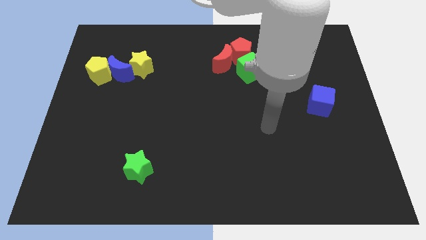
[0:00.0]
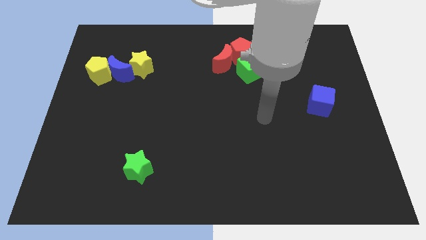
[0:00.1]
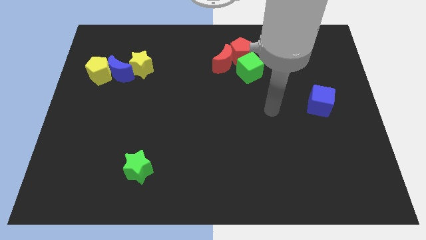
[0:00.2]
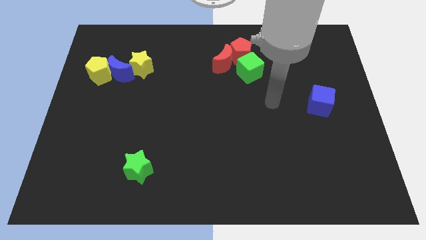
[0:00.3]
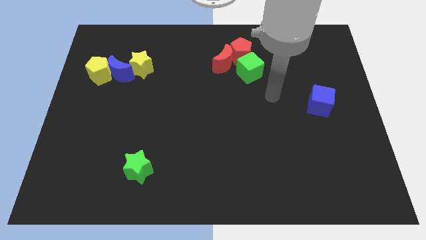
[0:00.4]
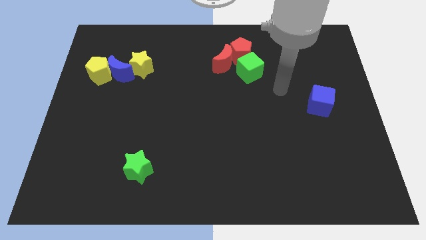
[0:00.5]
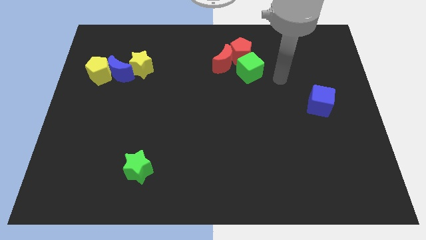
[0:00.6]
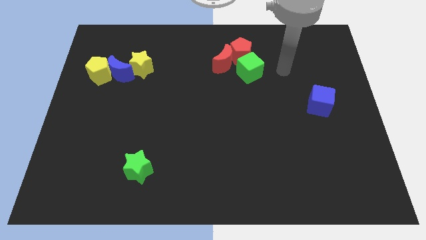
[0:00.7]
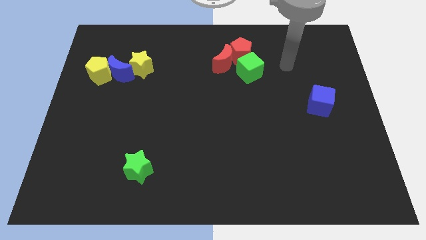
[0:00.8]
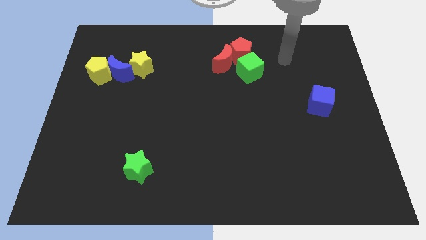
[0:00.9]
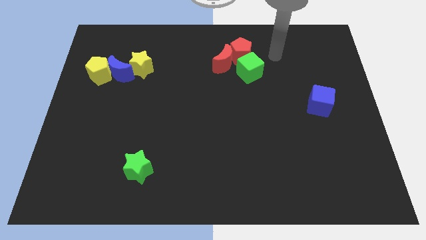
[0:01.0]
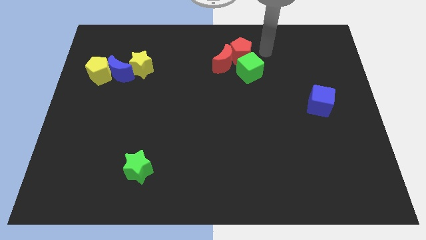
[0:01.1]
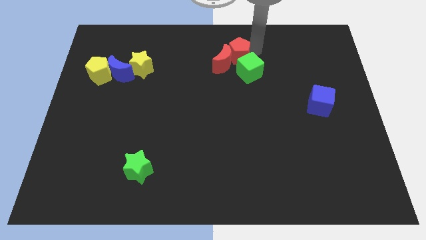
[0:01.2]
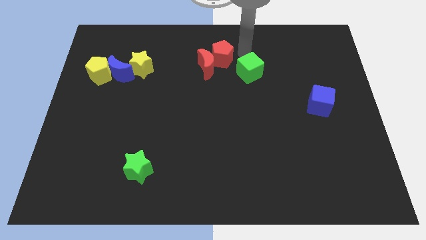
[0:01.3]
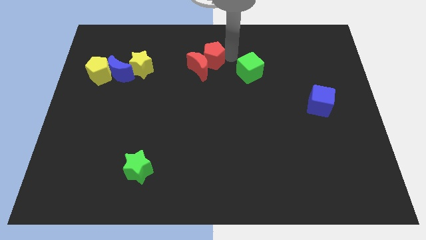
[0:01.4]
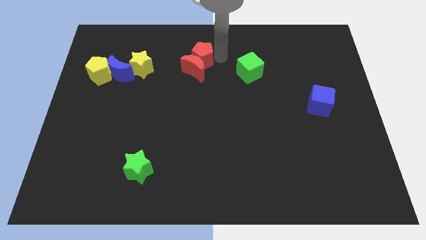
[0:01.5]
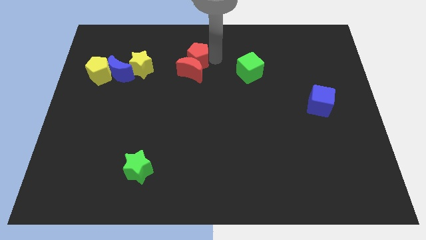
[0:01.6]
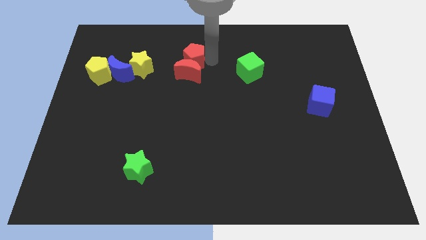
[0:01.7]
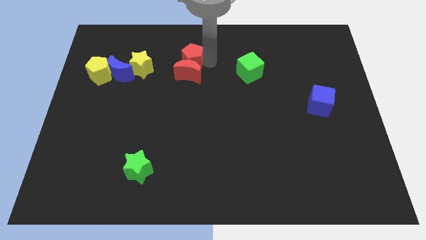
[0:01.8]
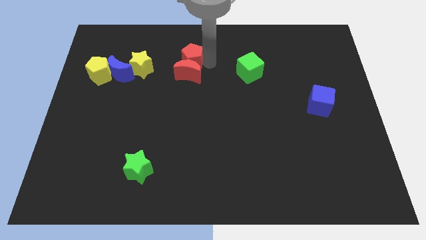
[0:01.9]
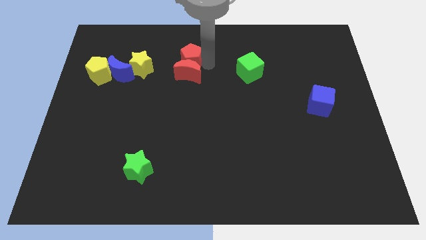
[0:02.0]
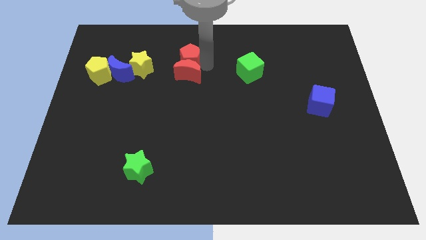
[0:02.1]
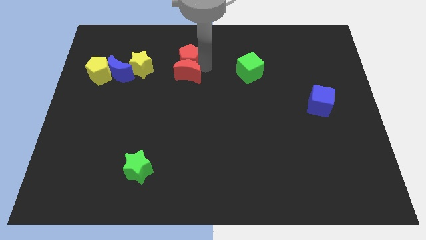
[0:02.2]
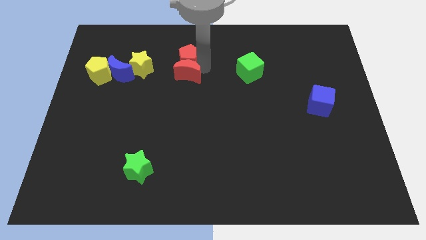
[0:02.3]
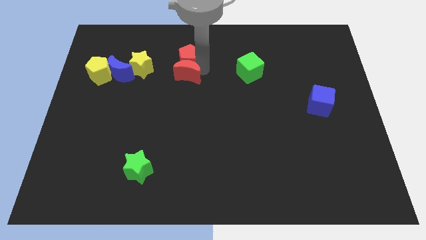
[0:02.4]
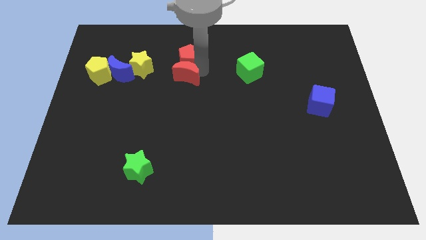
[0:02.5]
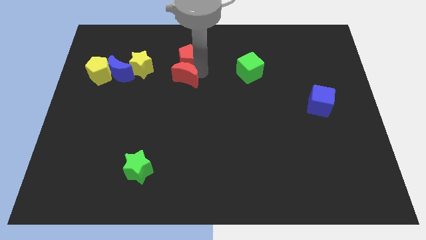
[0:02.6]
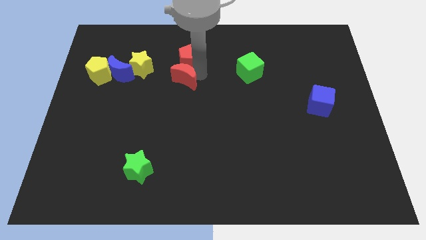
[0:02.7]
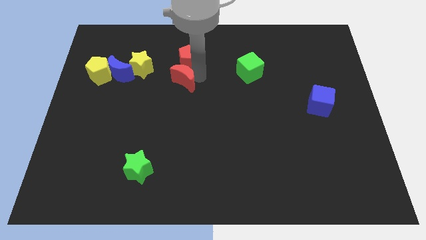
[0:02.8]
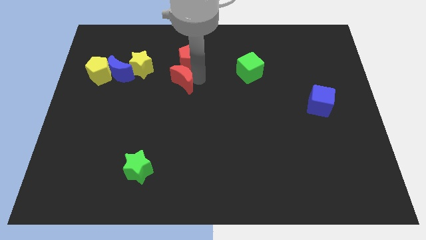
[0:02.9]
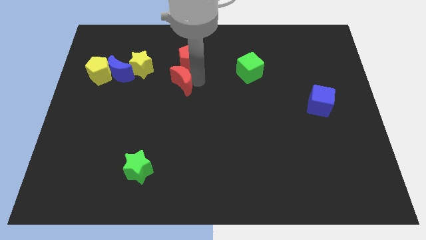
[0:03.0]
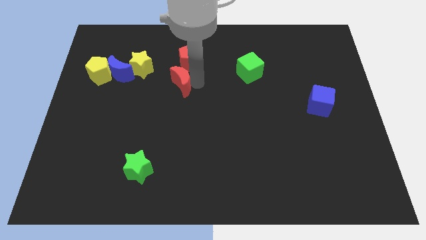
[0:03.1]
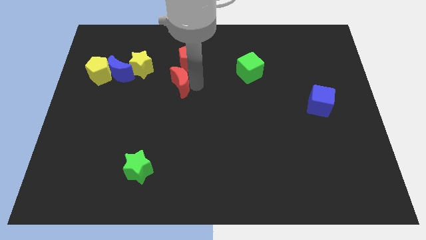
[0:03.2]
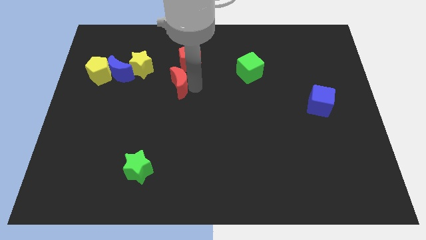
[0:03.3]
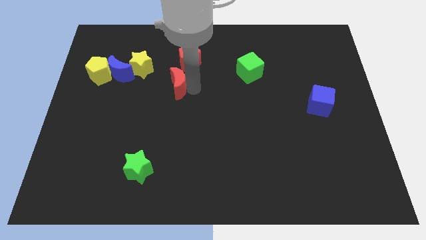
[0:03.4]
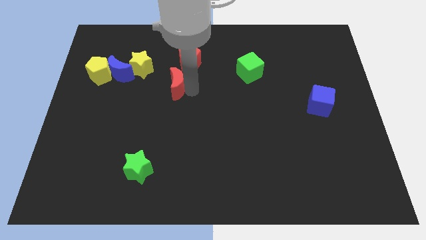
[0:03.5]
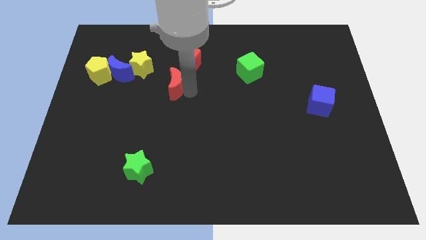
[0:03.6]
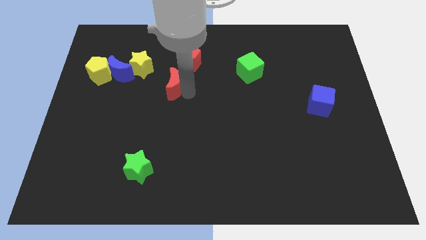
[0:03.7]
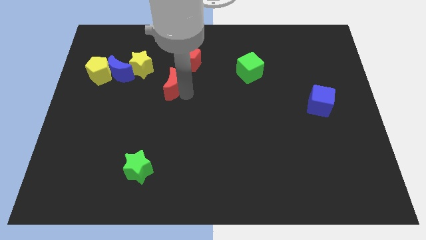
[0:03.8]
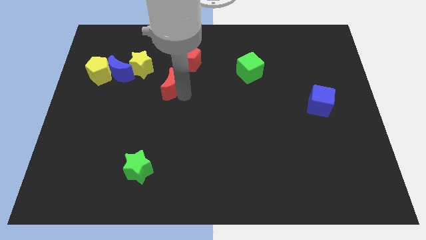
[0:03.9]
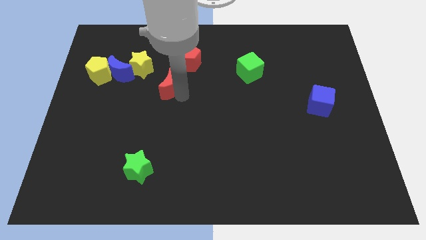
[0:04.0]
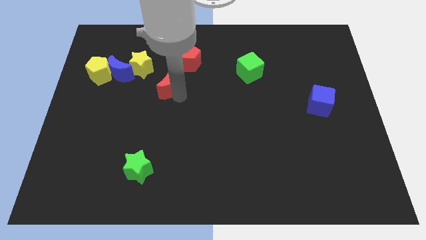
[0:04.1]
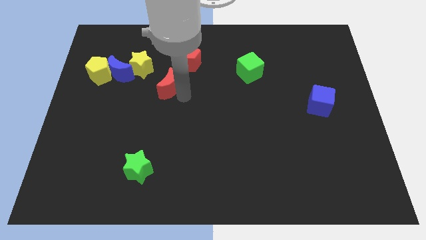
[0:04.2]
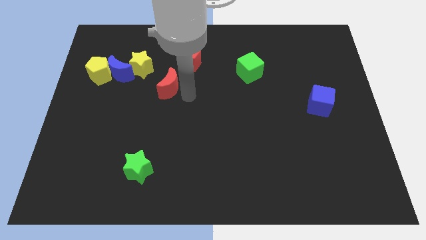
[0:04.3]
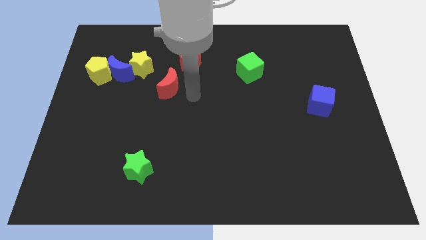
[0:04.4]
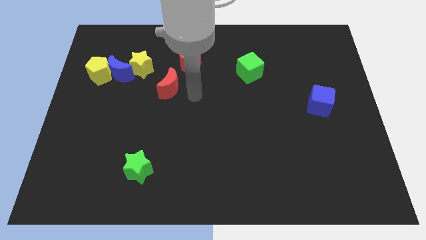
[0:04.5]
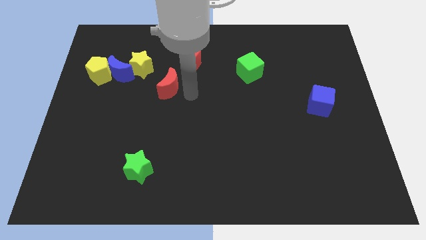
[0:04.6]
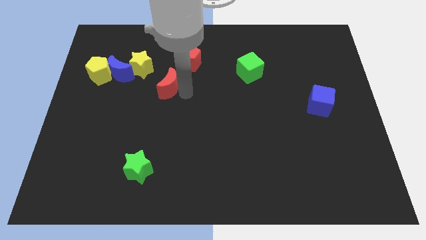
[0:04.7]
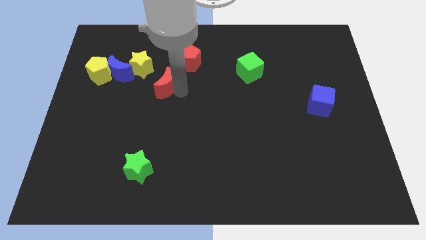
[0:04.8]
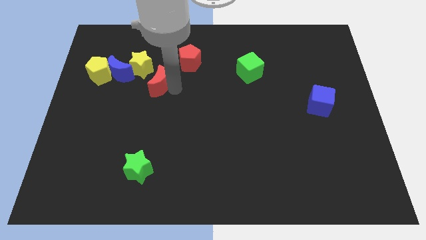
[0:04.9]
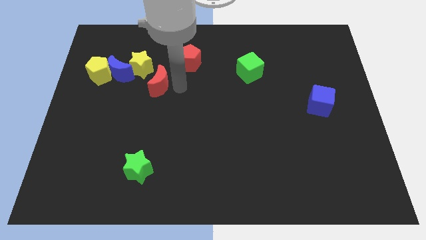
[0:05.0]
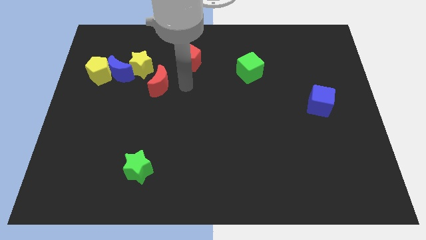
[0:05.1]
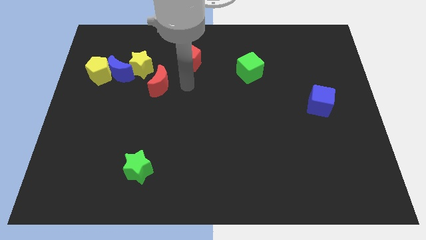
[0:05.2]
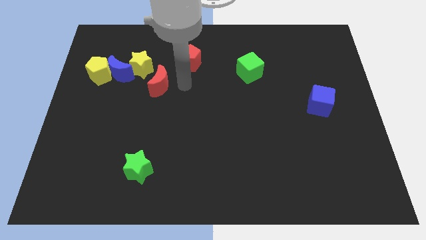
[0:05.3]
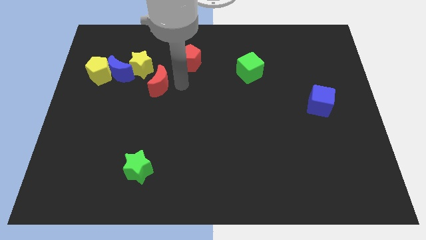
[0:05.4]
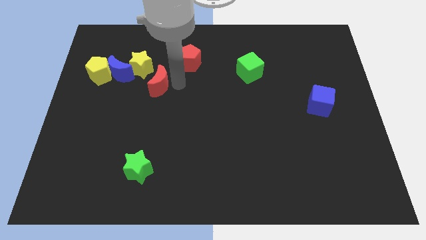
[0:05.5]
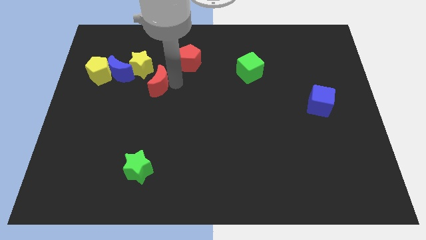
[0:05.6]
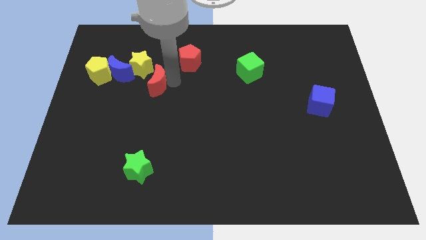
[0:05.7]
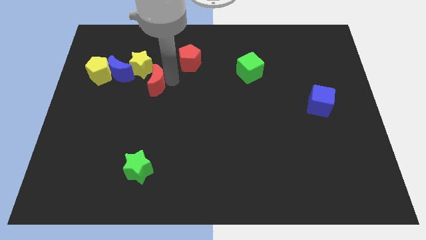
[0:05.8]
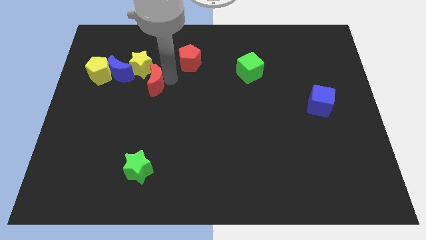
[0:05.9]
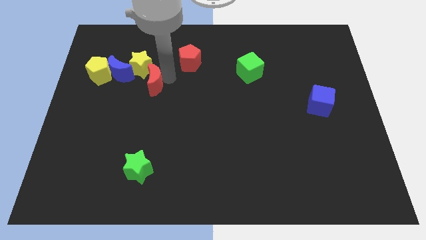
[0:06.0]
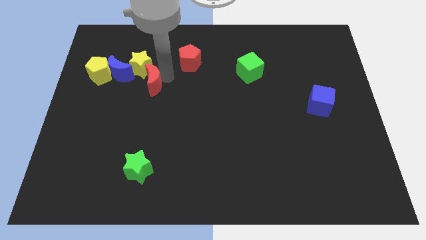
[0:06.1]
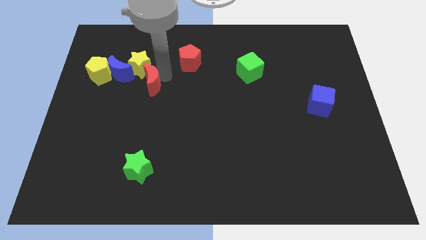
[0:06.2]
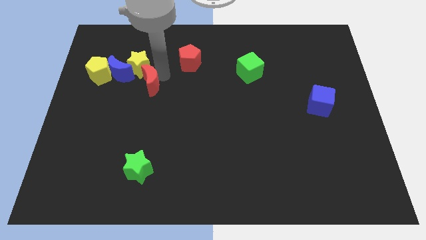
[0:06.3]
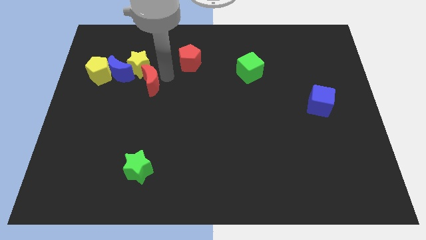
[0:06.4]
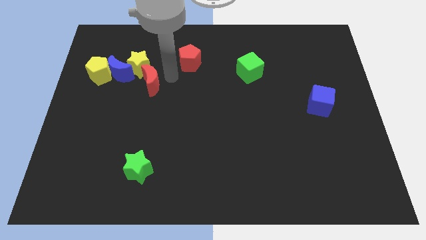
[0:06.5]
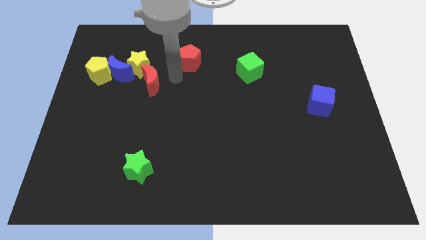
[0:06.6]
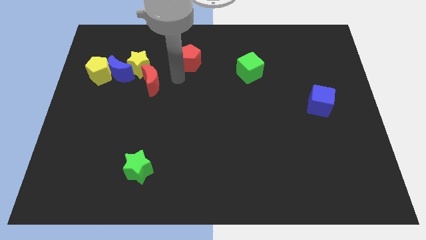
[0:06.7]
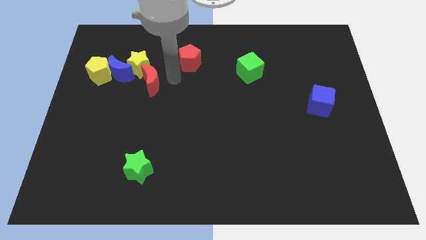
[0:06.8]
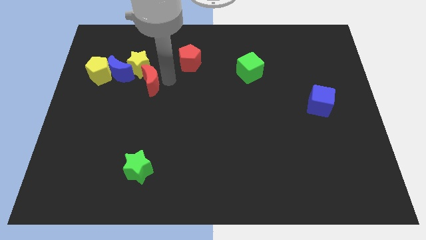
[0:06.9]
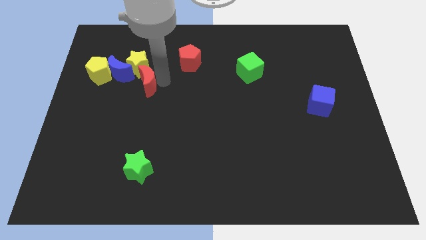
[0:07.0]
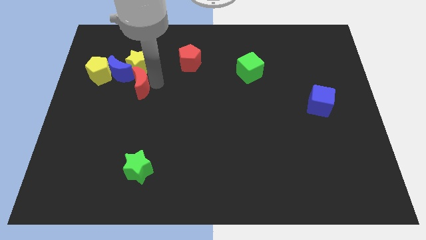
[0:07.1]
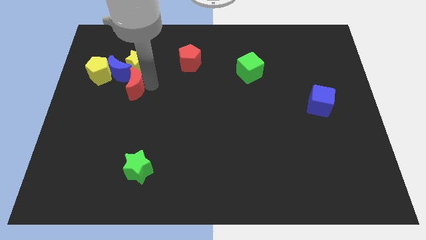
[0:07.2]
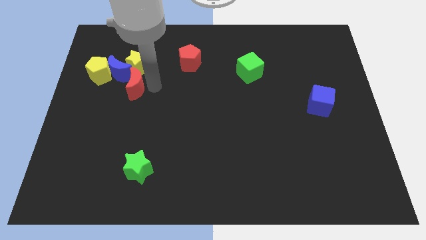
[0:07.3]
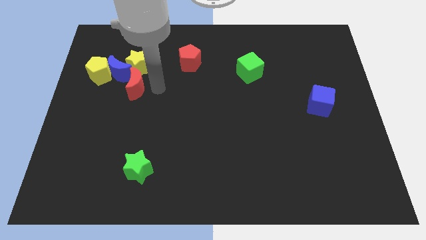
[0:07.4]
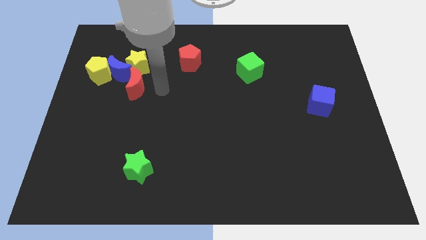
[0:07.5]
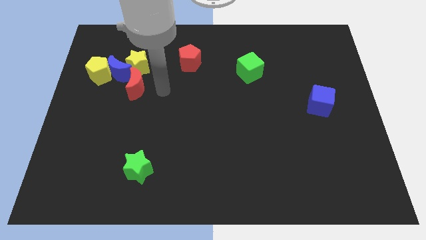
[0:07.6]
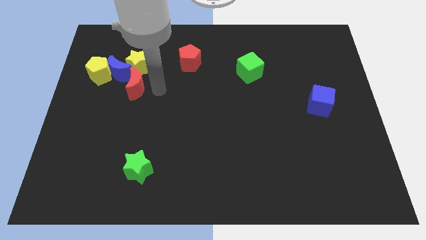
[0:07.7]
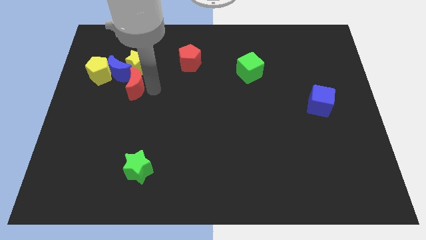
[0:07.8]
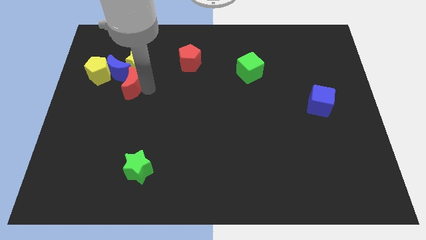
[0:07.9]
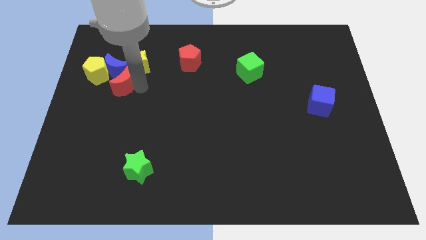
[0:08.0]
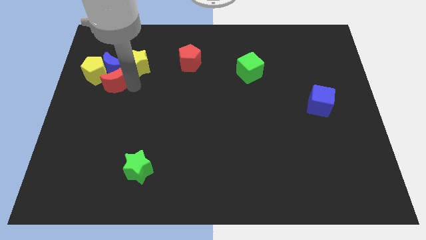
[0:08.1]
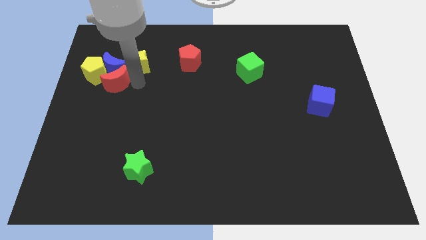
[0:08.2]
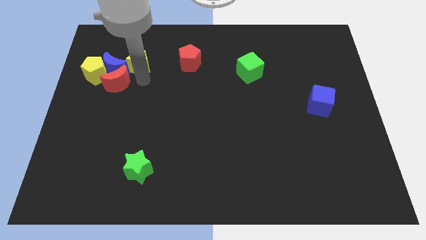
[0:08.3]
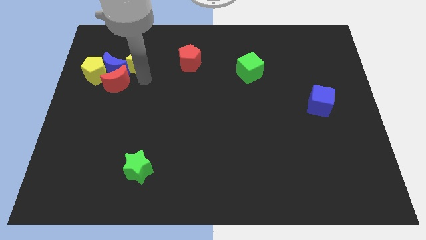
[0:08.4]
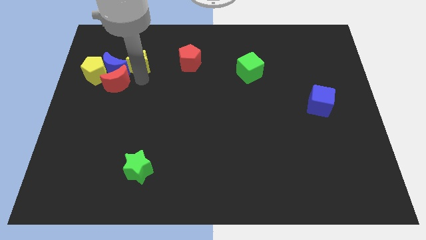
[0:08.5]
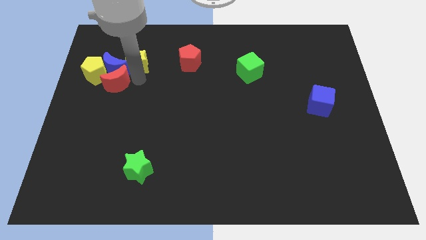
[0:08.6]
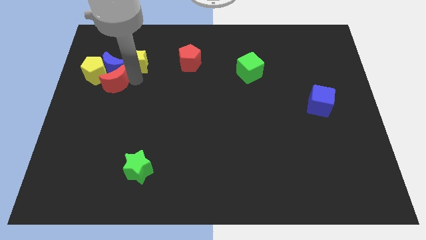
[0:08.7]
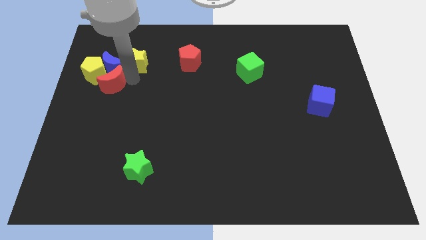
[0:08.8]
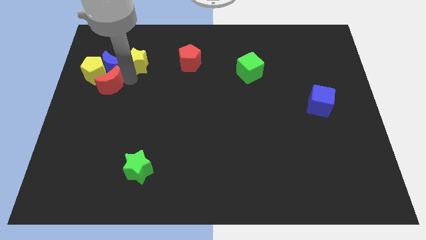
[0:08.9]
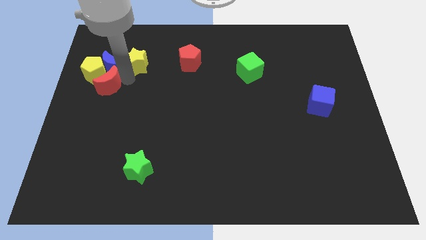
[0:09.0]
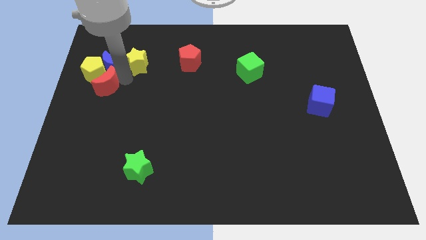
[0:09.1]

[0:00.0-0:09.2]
push the red moon to the center left
